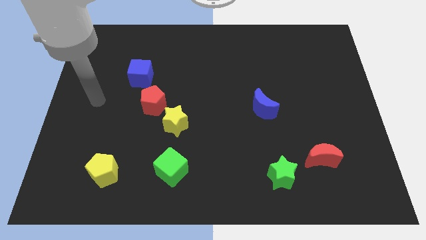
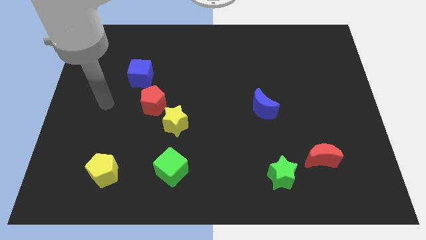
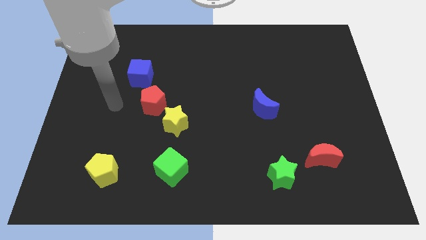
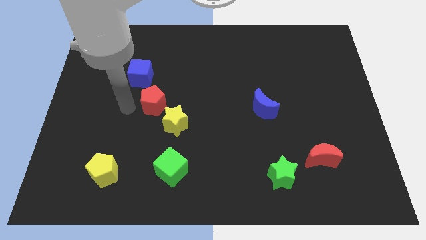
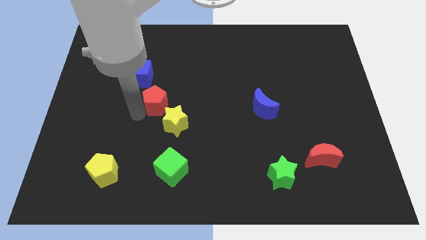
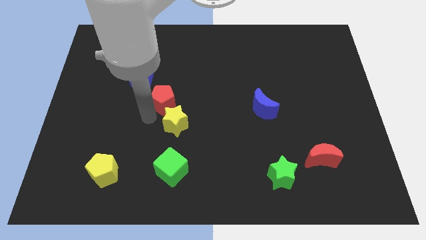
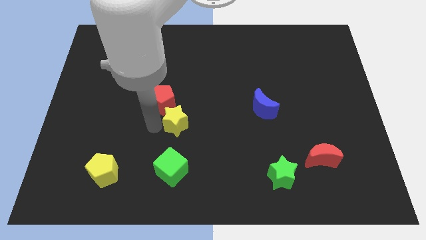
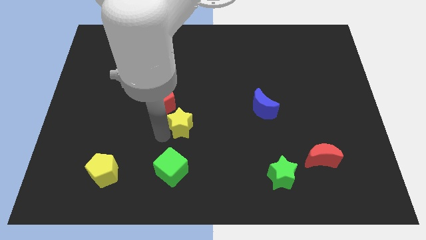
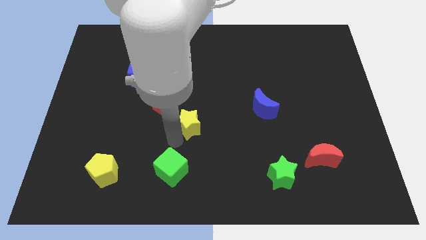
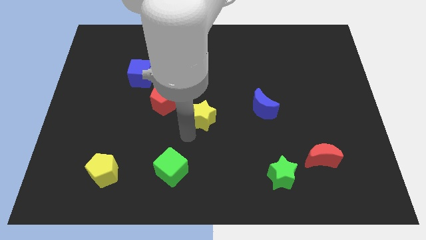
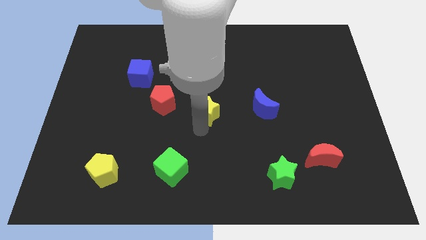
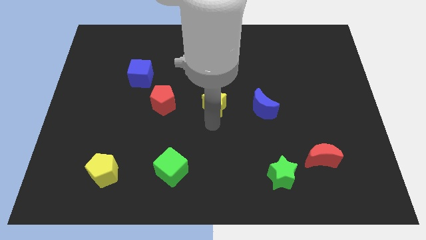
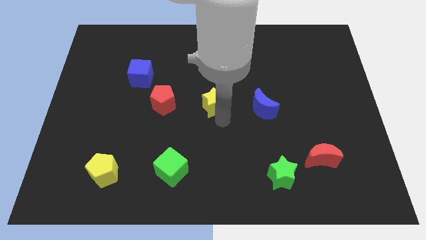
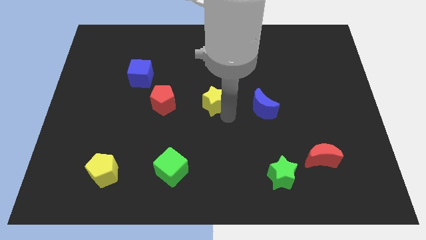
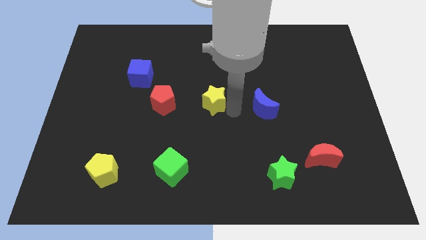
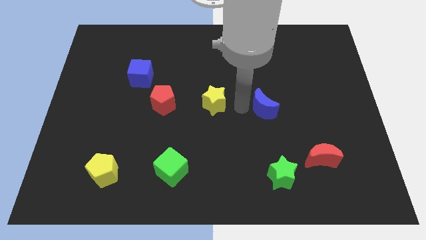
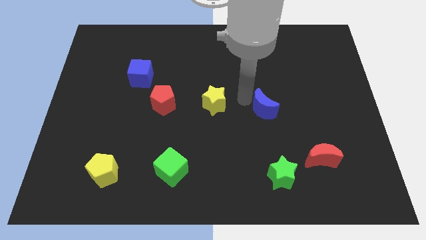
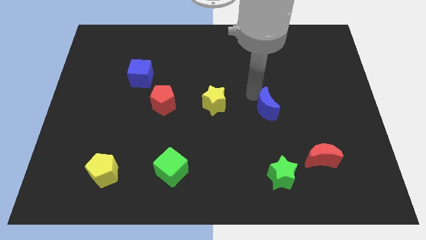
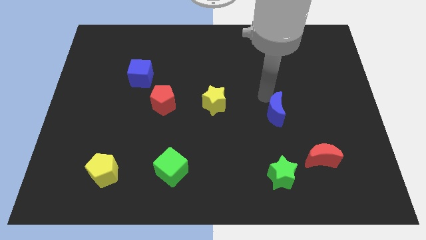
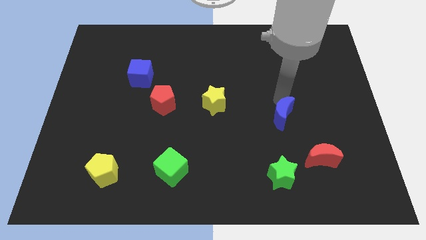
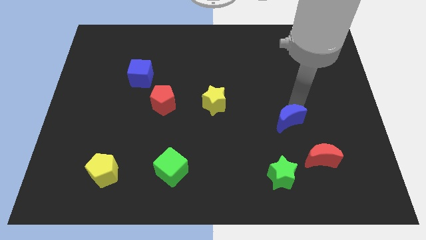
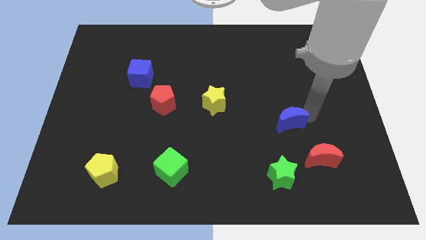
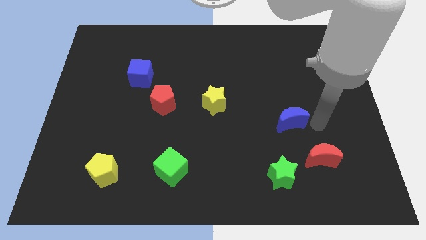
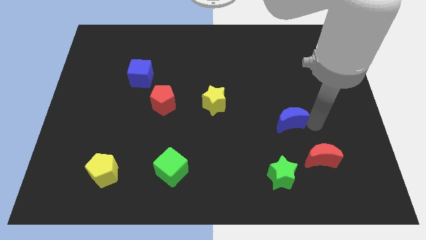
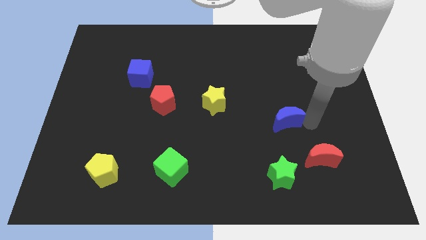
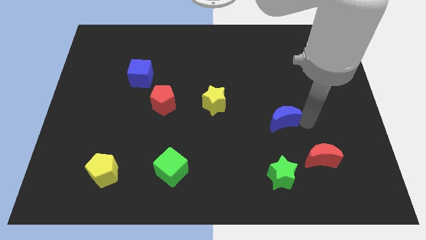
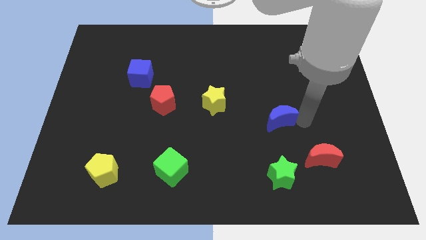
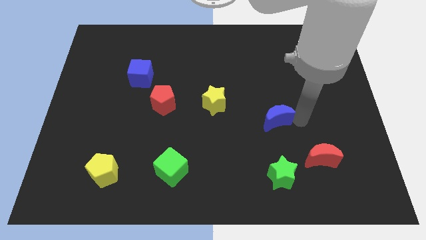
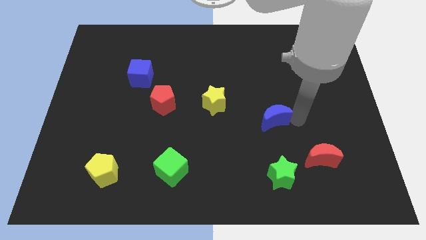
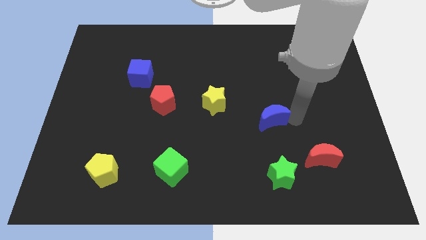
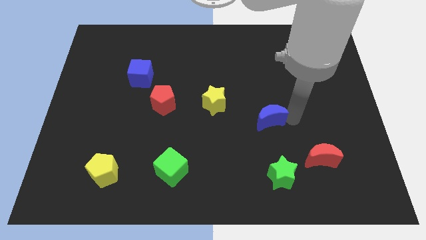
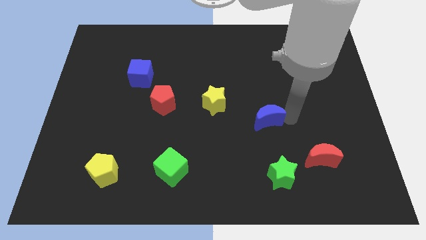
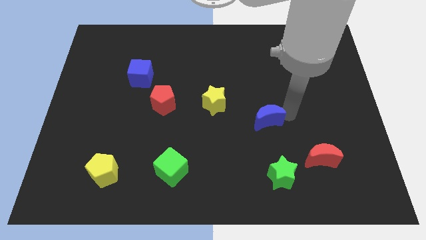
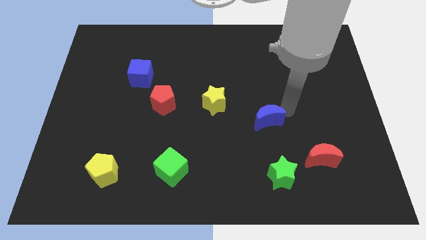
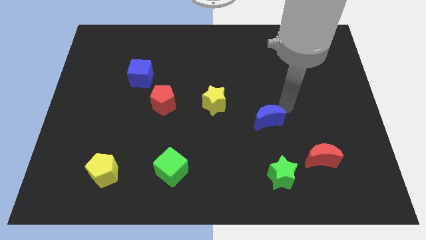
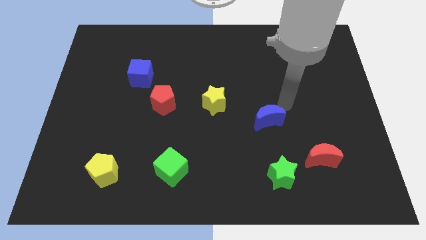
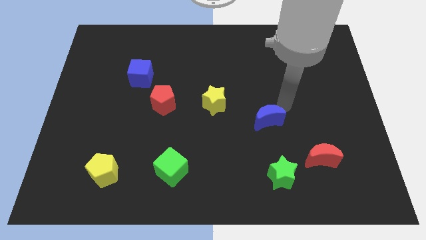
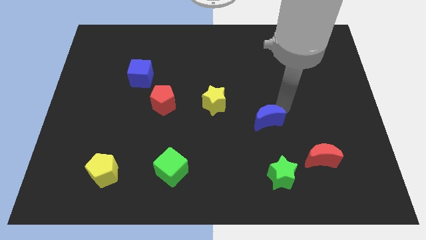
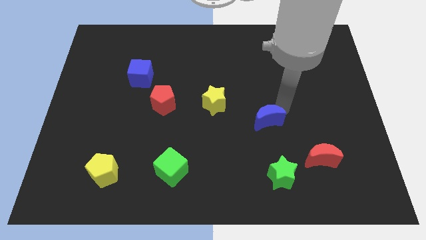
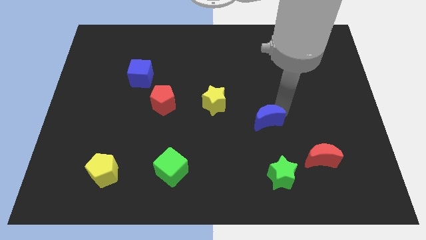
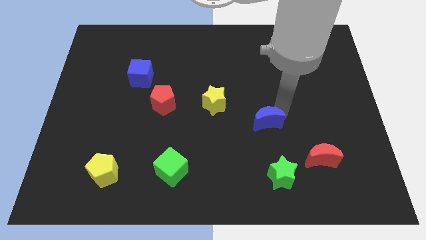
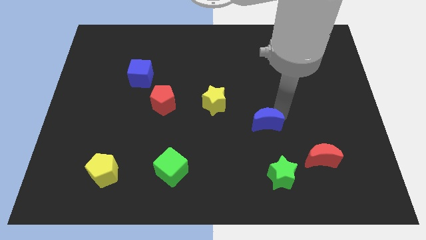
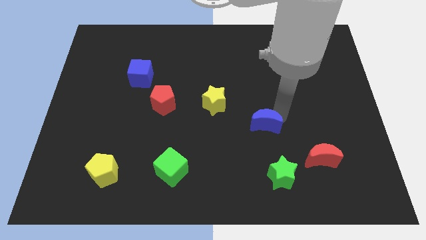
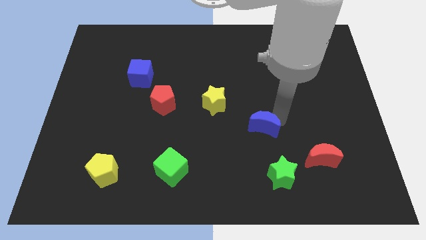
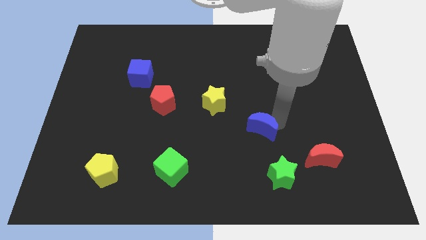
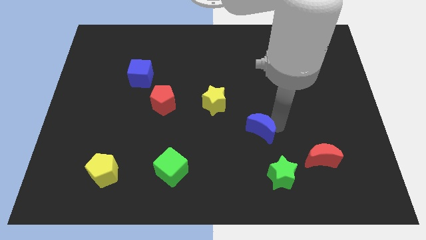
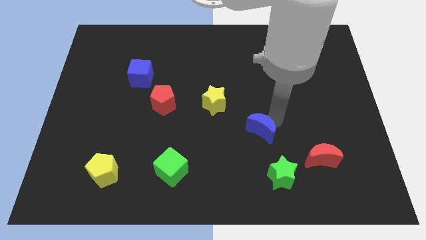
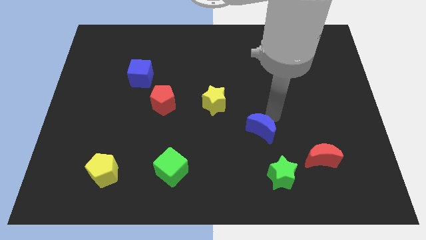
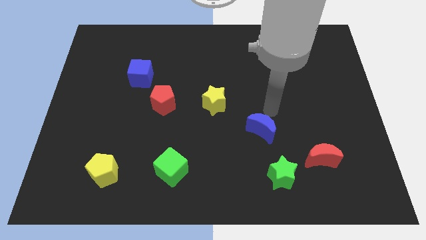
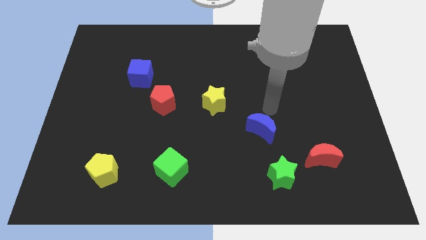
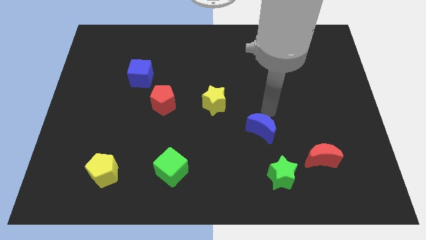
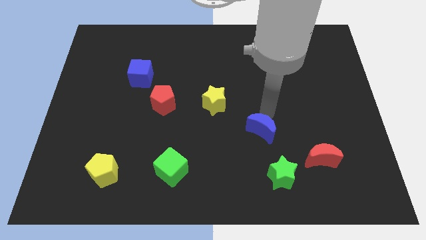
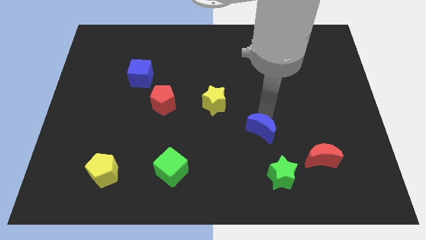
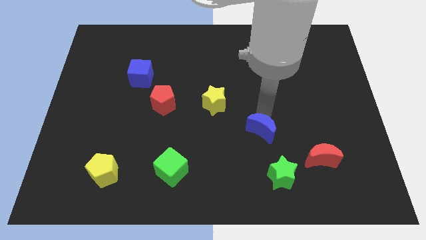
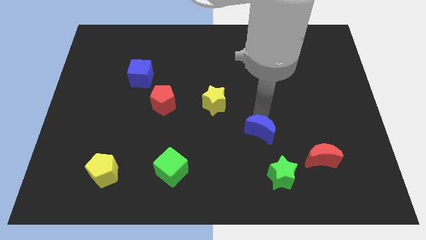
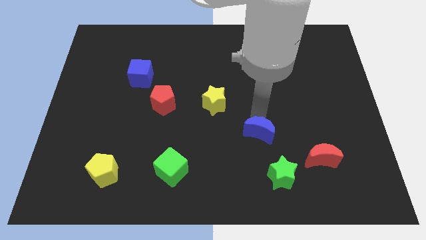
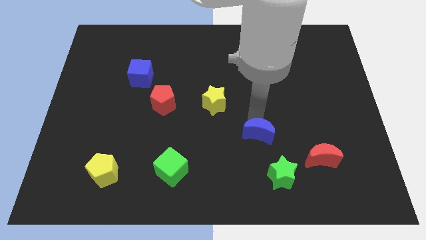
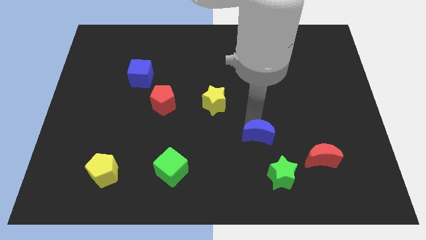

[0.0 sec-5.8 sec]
move the blue moon to the top left side of the green star

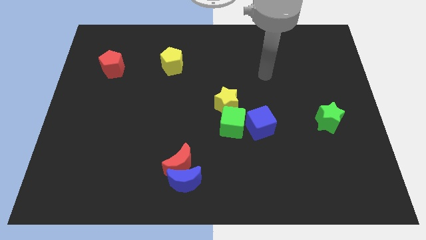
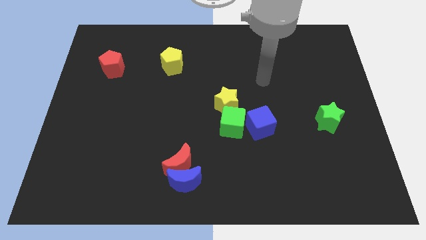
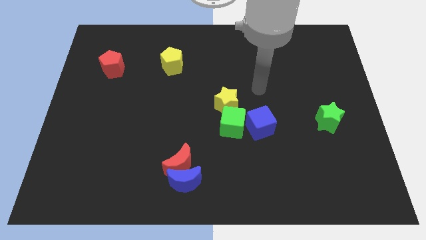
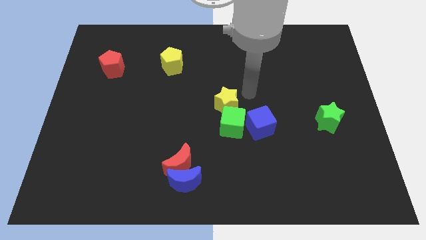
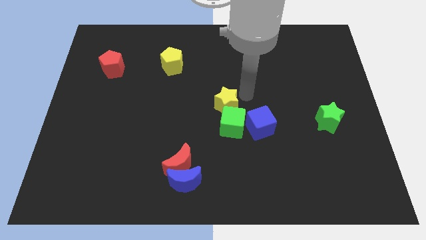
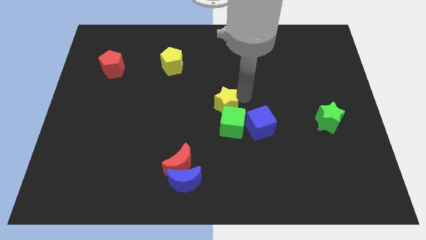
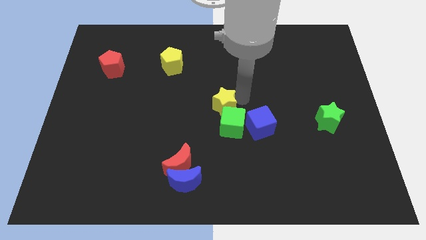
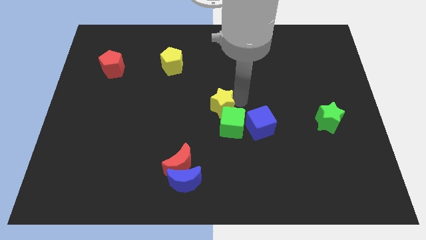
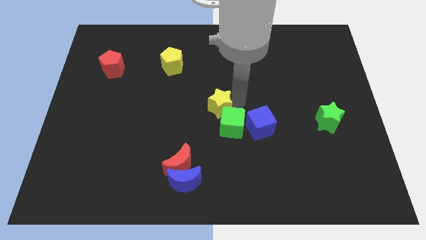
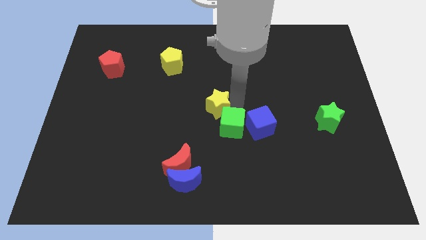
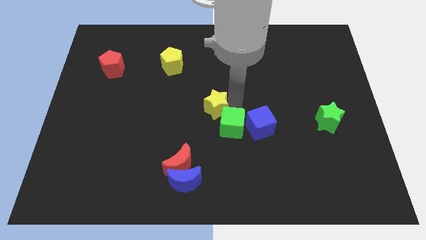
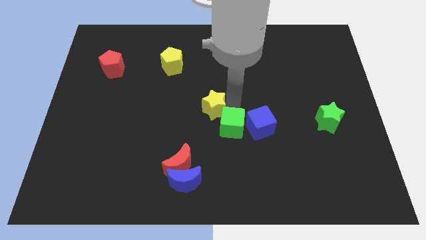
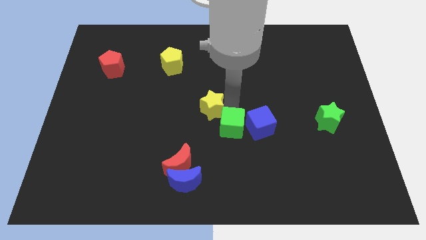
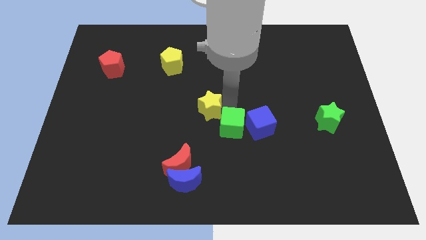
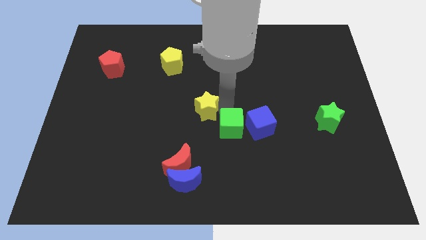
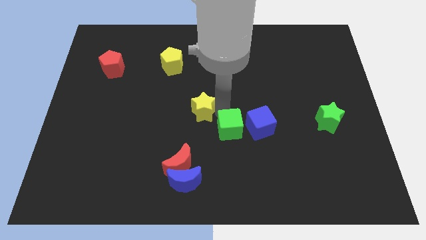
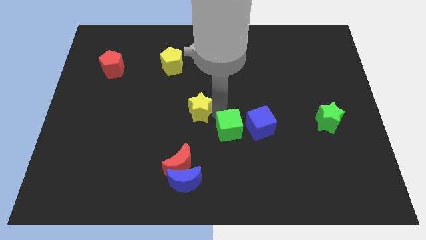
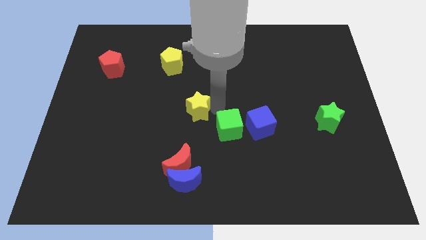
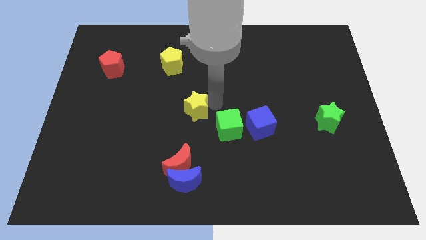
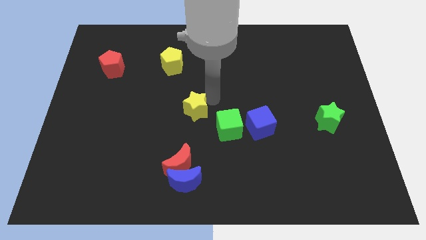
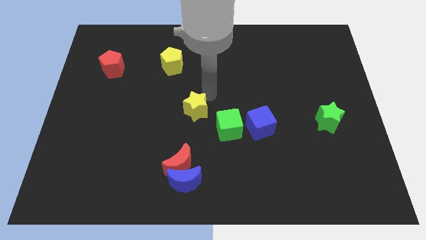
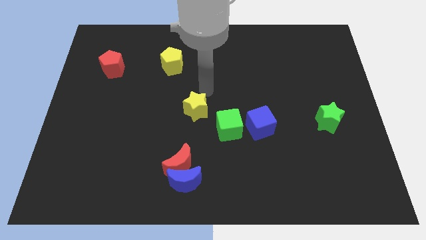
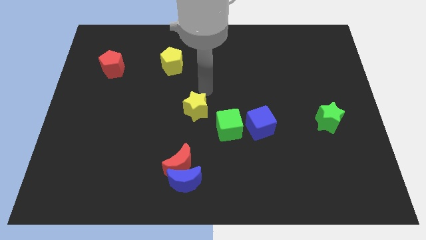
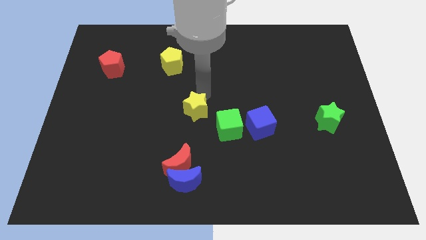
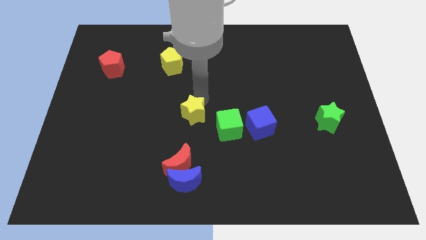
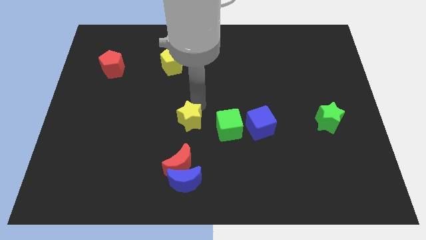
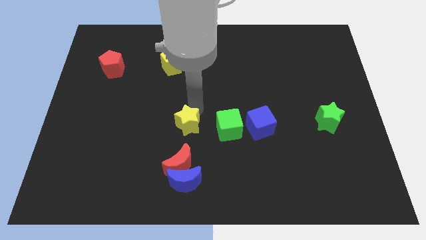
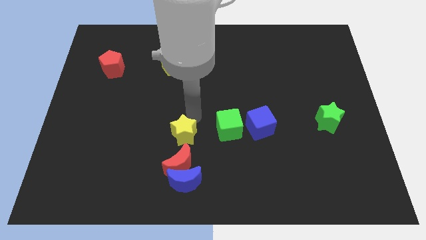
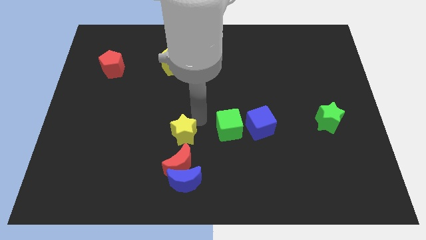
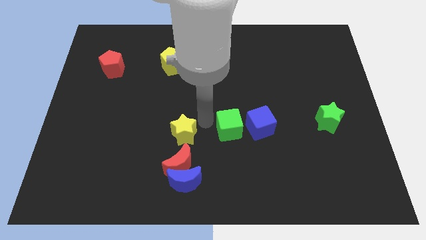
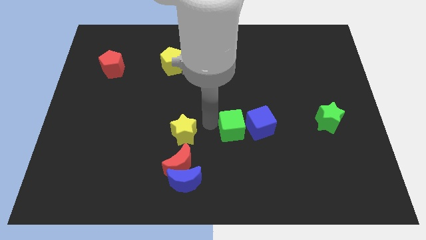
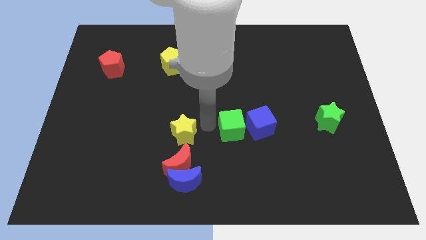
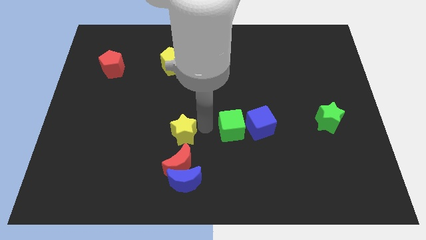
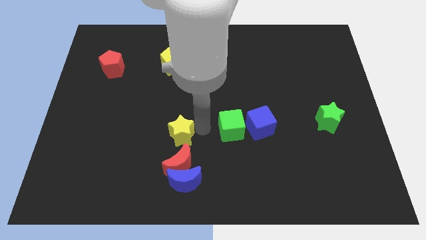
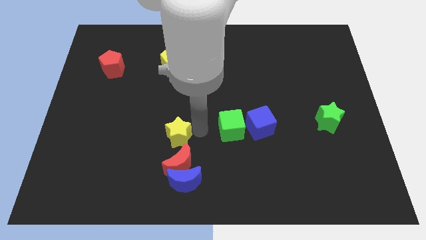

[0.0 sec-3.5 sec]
slide the yellow star to the top left of the red moon
